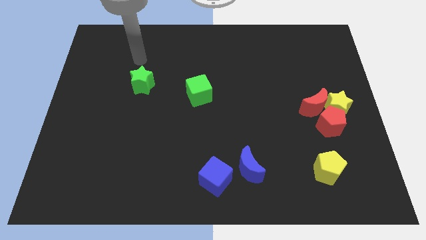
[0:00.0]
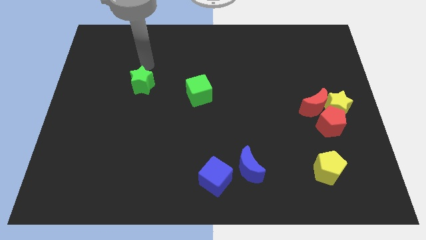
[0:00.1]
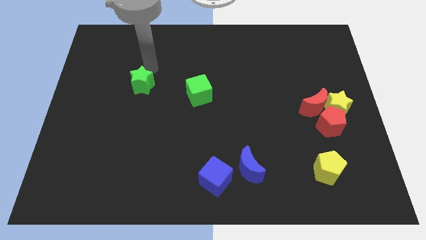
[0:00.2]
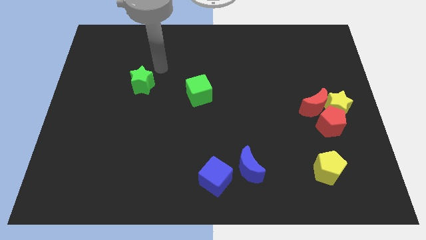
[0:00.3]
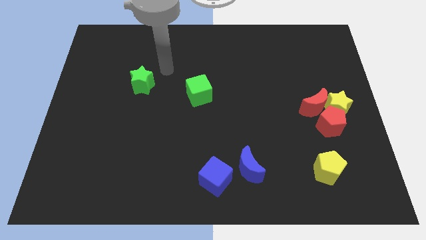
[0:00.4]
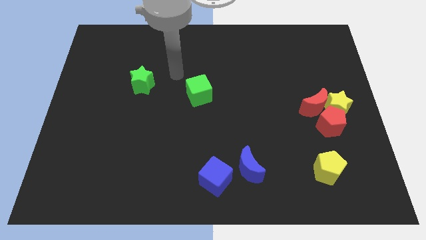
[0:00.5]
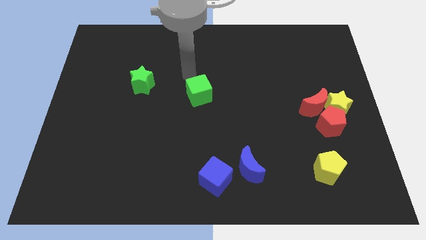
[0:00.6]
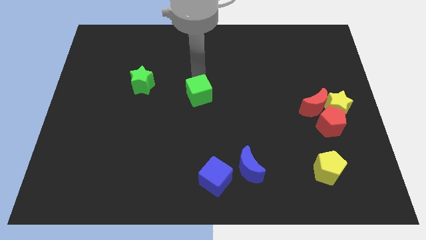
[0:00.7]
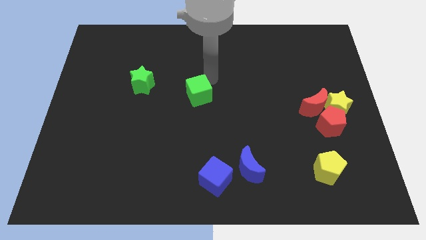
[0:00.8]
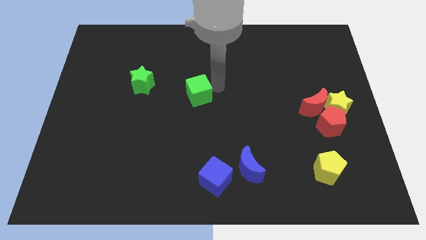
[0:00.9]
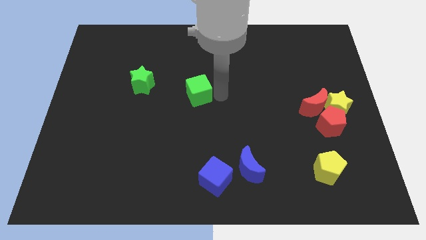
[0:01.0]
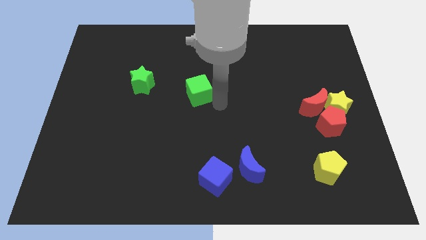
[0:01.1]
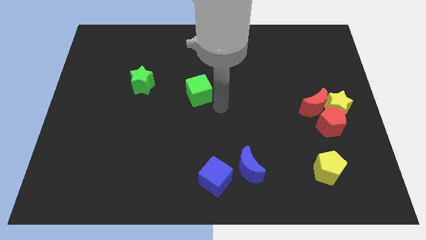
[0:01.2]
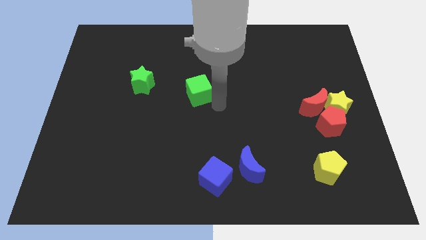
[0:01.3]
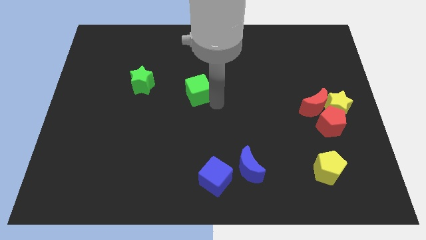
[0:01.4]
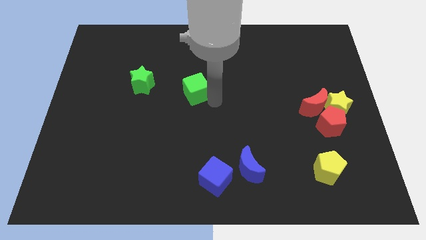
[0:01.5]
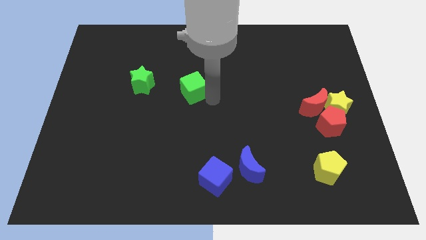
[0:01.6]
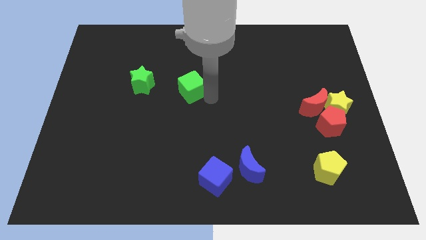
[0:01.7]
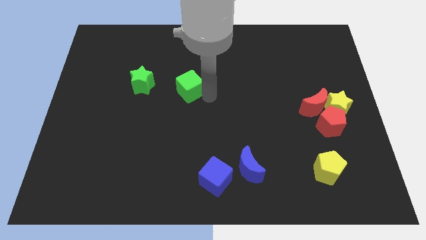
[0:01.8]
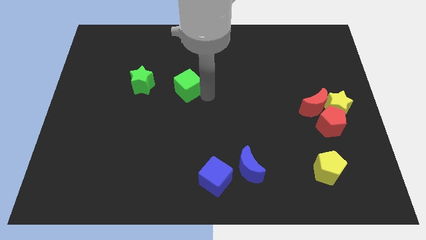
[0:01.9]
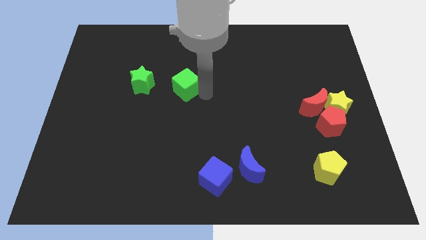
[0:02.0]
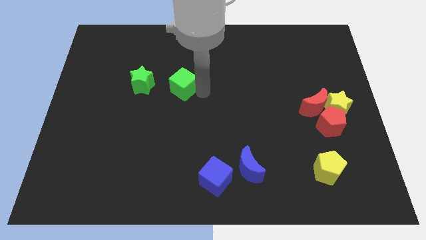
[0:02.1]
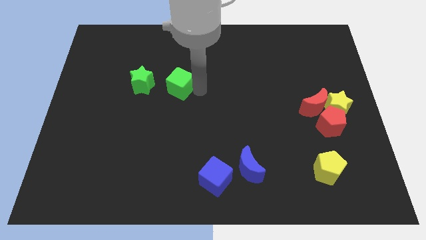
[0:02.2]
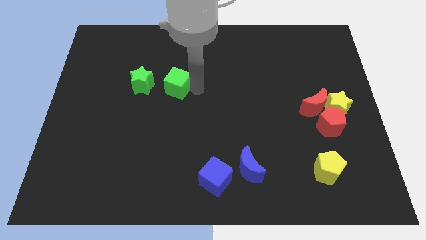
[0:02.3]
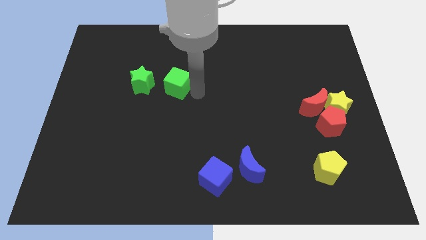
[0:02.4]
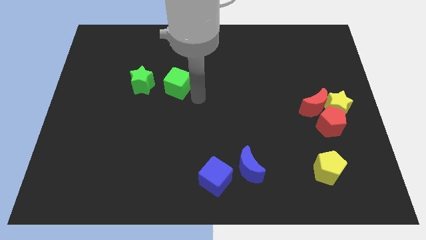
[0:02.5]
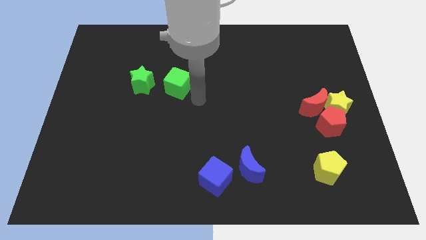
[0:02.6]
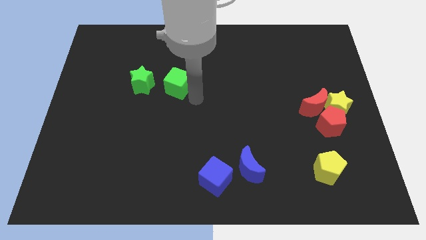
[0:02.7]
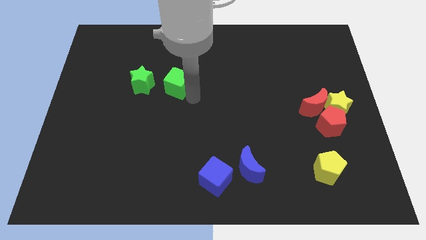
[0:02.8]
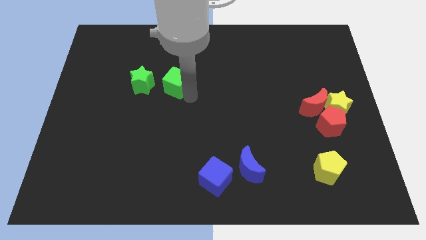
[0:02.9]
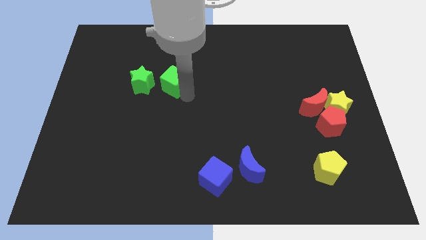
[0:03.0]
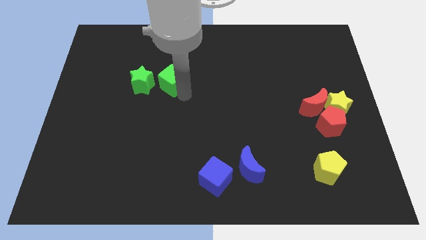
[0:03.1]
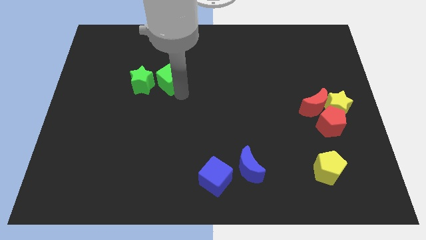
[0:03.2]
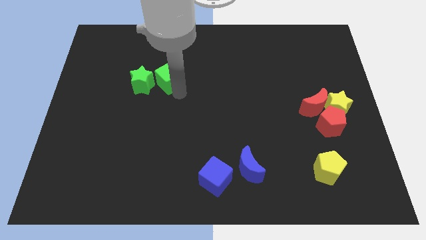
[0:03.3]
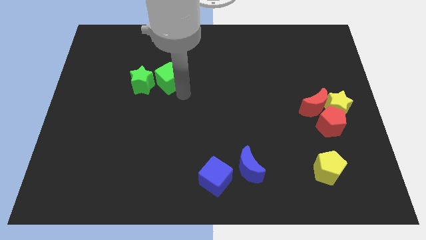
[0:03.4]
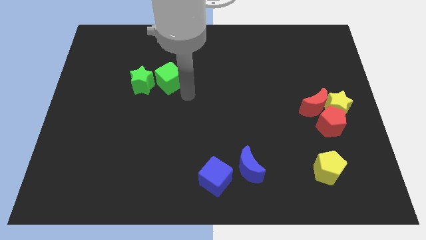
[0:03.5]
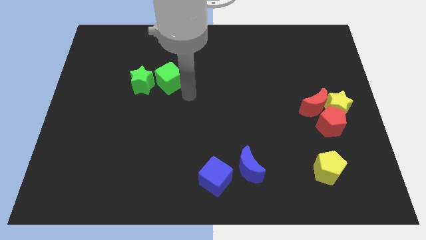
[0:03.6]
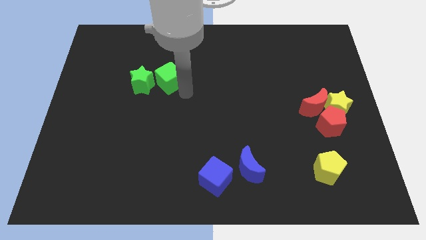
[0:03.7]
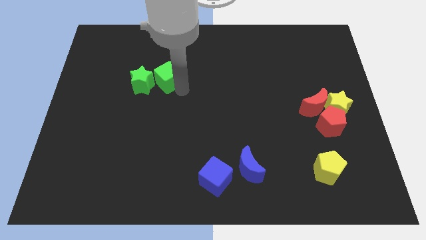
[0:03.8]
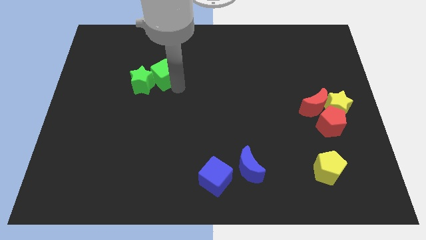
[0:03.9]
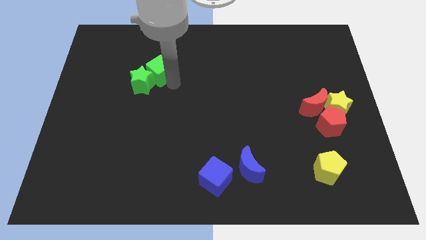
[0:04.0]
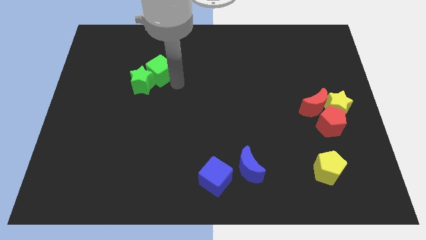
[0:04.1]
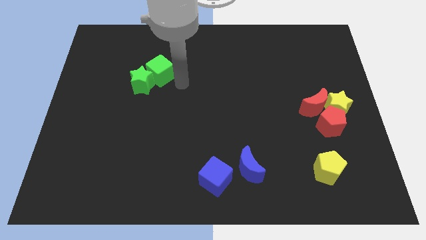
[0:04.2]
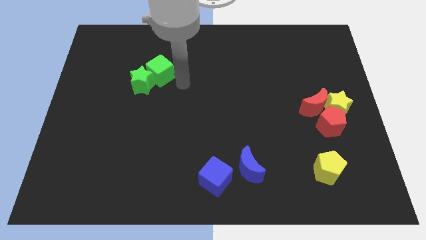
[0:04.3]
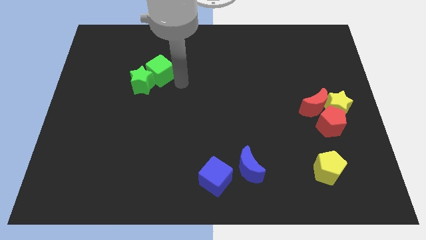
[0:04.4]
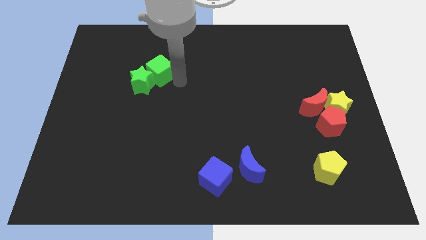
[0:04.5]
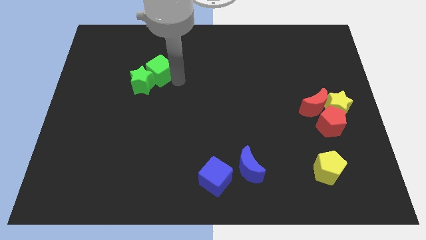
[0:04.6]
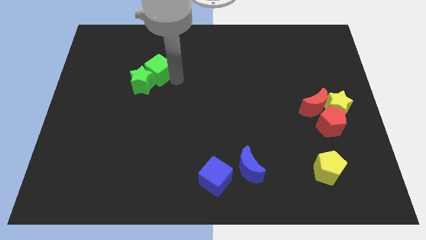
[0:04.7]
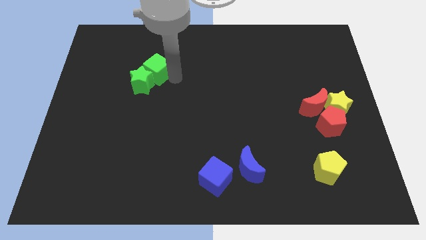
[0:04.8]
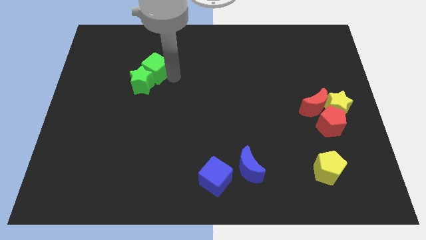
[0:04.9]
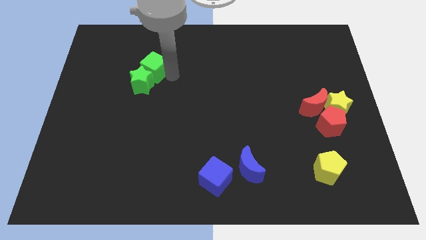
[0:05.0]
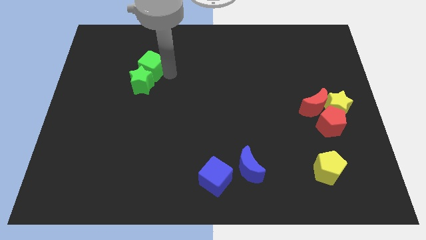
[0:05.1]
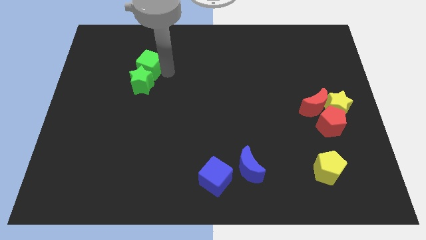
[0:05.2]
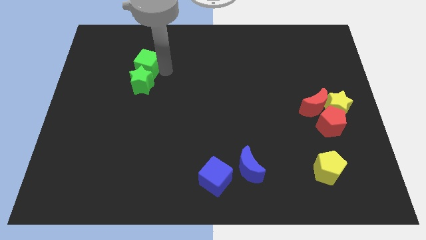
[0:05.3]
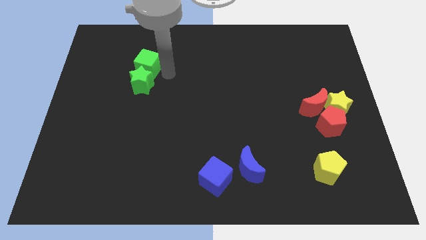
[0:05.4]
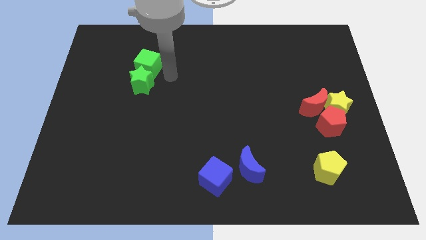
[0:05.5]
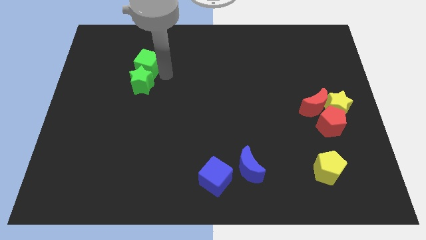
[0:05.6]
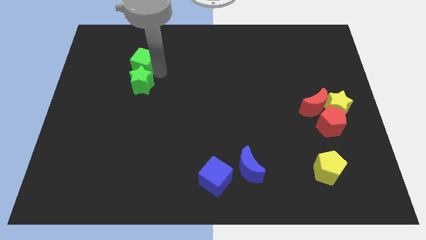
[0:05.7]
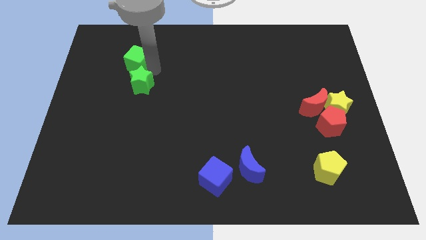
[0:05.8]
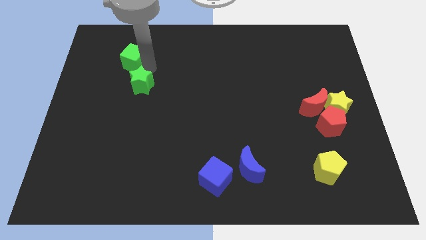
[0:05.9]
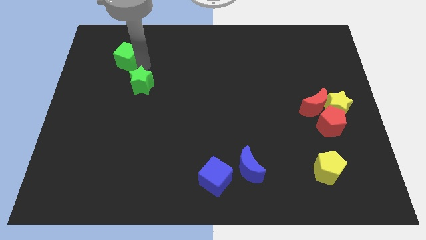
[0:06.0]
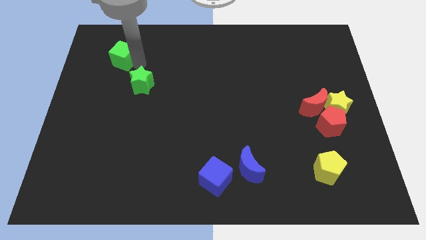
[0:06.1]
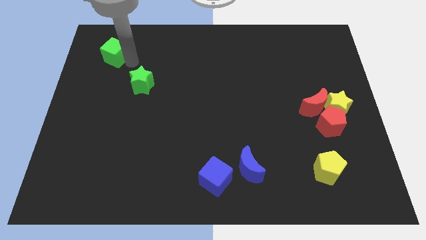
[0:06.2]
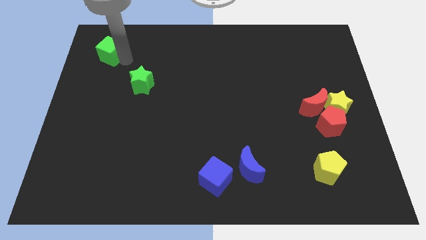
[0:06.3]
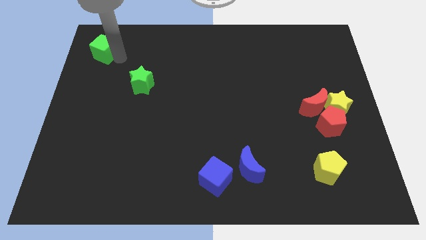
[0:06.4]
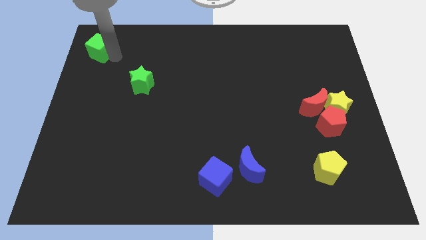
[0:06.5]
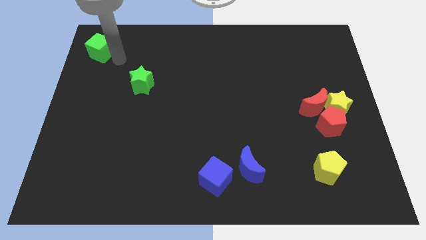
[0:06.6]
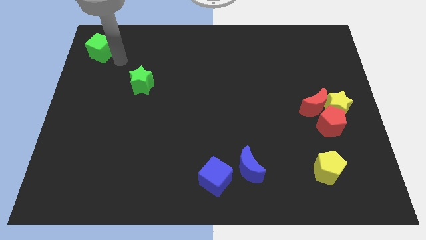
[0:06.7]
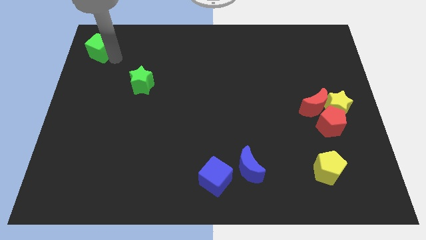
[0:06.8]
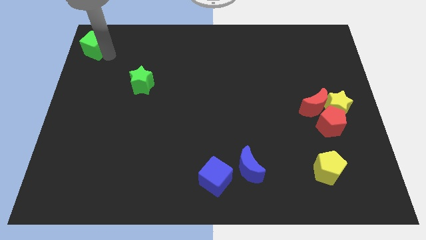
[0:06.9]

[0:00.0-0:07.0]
put the green cube to the upper left corner

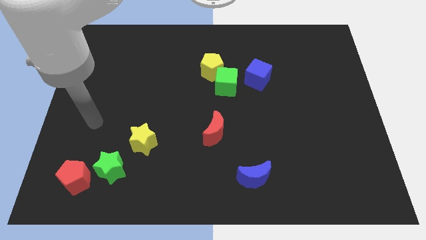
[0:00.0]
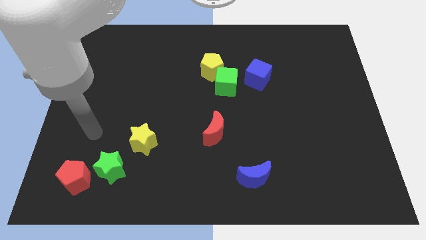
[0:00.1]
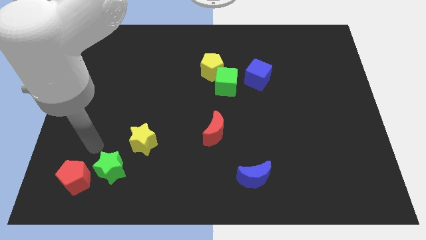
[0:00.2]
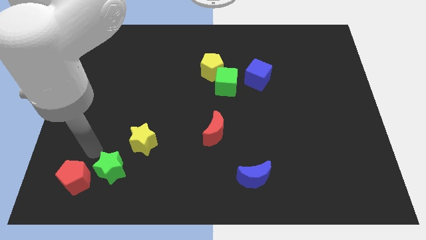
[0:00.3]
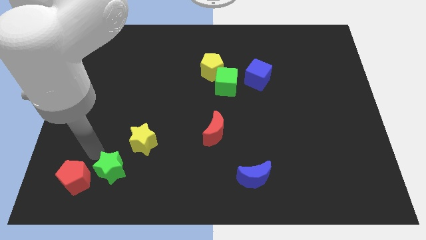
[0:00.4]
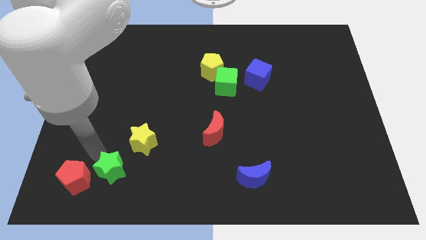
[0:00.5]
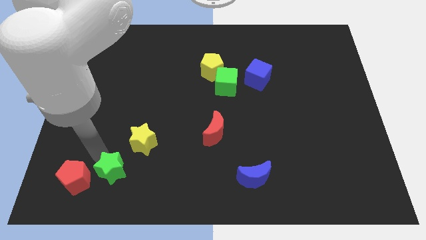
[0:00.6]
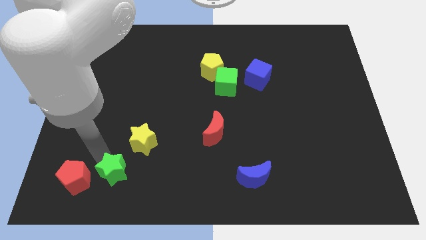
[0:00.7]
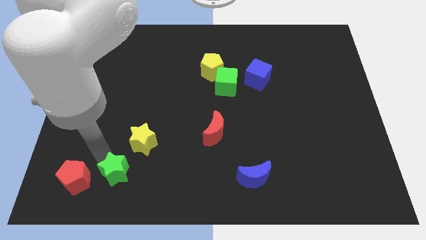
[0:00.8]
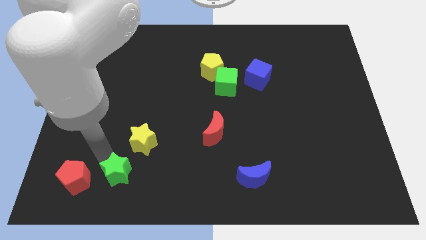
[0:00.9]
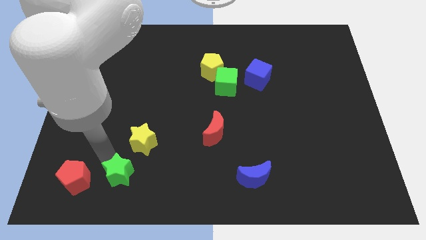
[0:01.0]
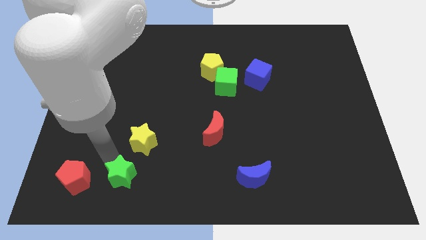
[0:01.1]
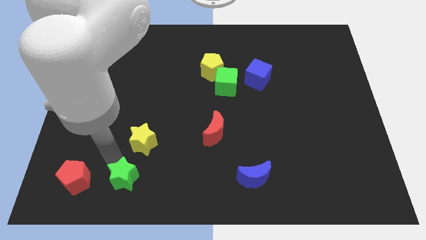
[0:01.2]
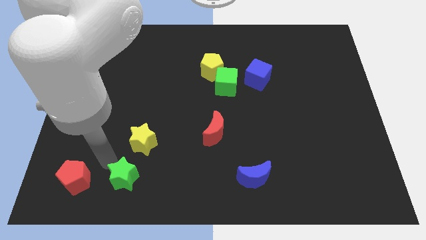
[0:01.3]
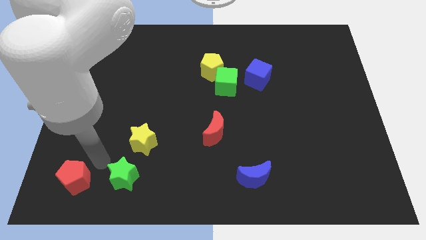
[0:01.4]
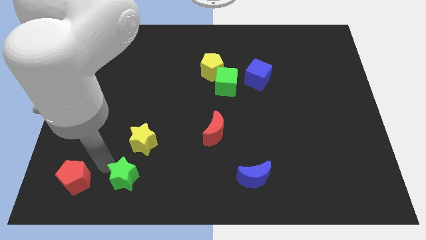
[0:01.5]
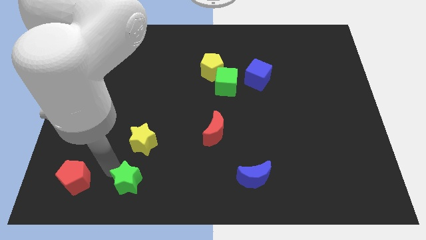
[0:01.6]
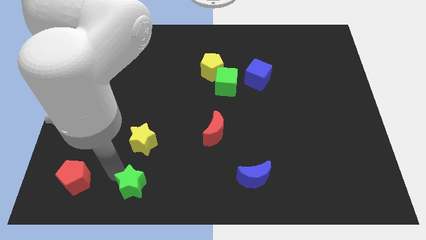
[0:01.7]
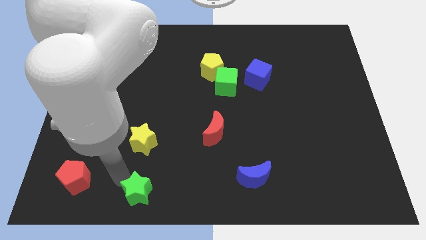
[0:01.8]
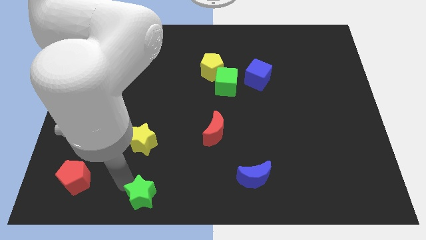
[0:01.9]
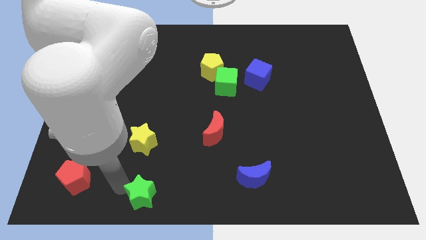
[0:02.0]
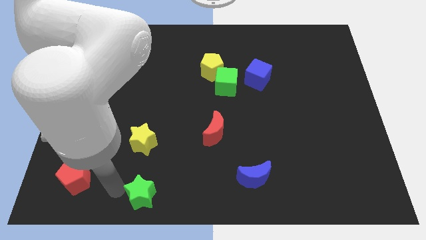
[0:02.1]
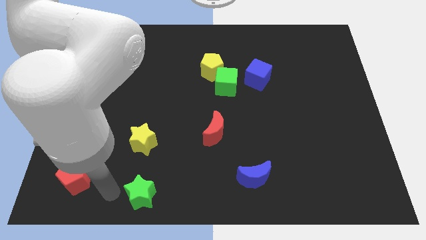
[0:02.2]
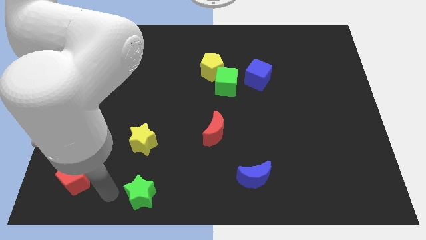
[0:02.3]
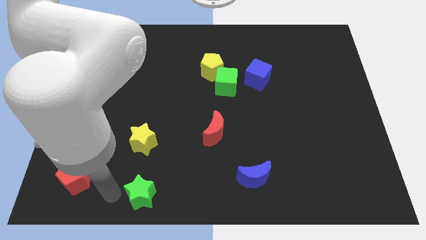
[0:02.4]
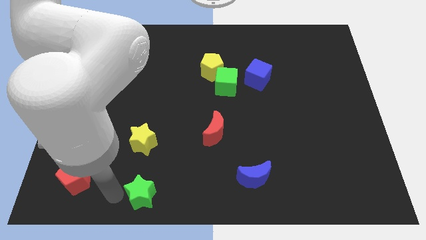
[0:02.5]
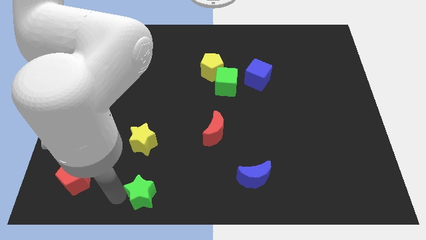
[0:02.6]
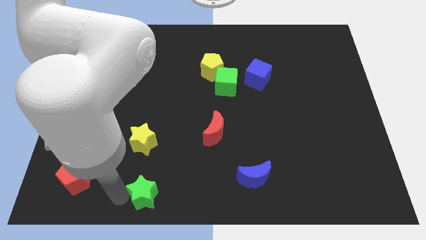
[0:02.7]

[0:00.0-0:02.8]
push the green star to the bottom
